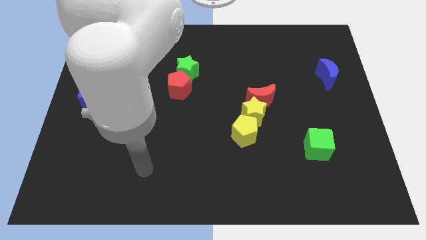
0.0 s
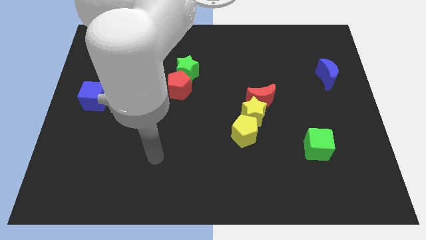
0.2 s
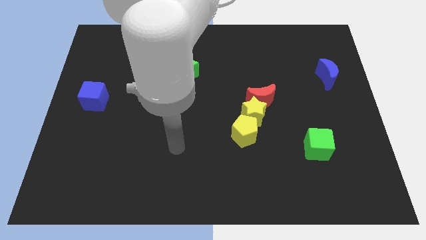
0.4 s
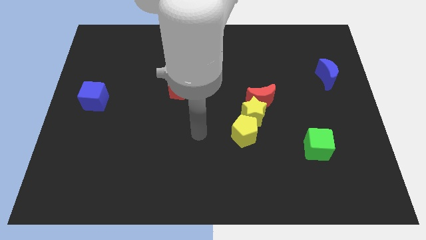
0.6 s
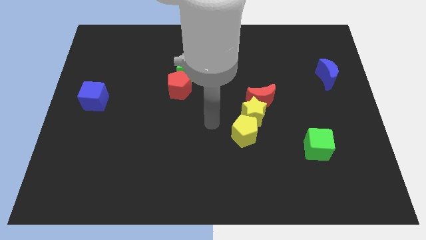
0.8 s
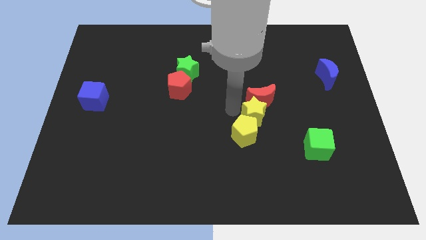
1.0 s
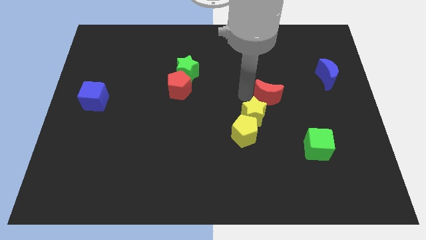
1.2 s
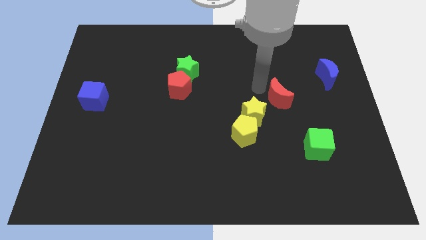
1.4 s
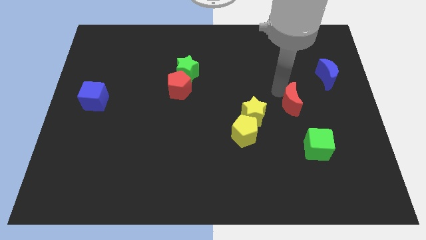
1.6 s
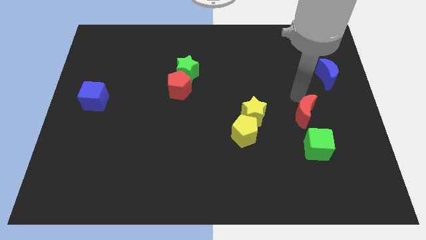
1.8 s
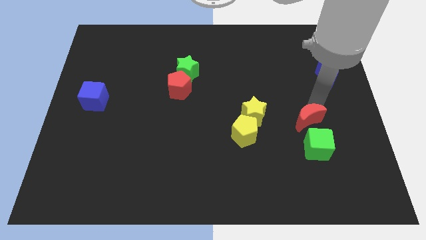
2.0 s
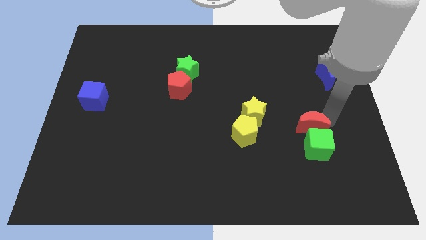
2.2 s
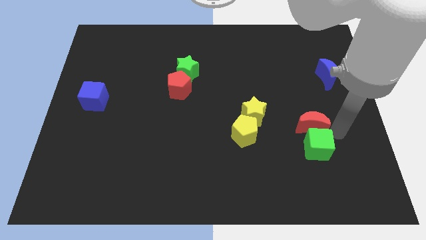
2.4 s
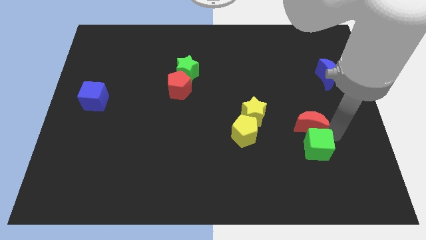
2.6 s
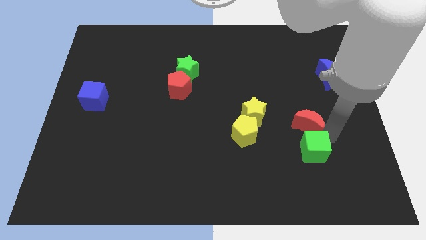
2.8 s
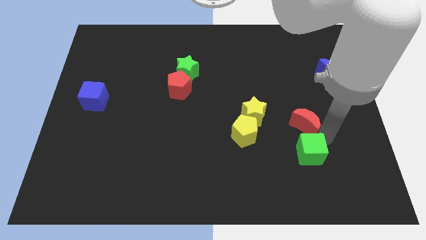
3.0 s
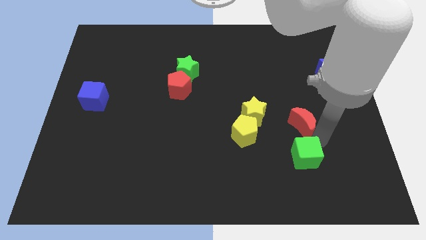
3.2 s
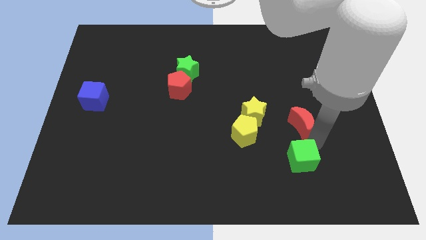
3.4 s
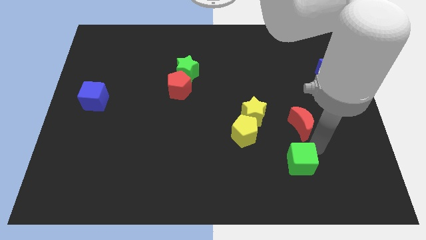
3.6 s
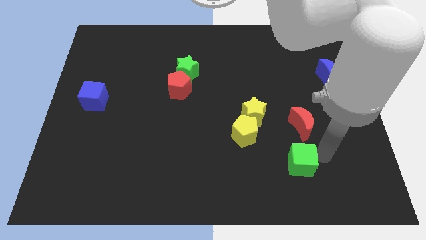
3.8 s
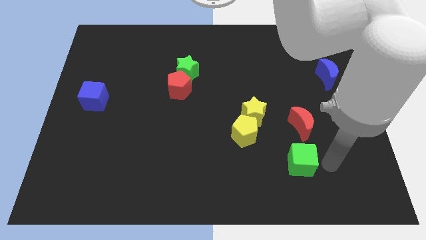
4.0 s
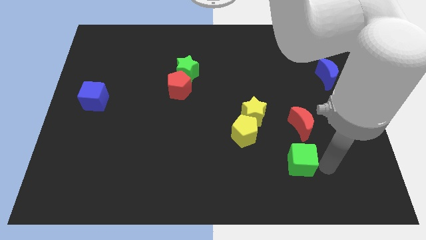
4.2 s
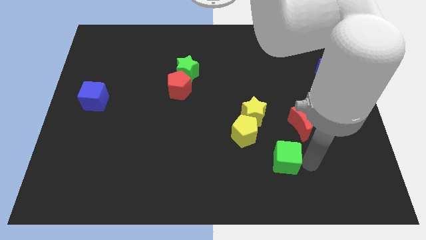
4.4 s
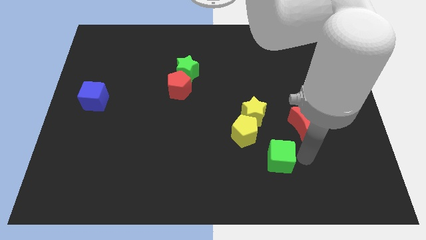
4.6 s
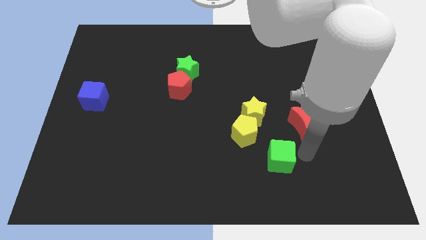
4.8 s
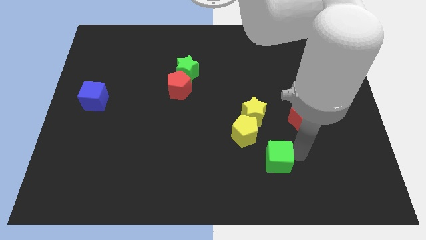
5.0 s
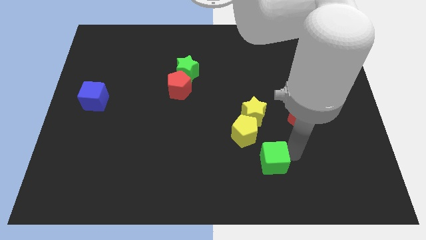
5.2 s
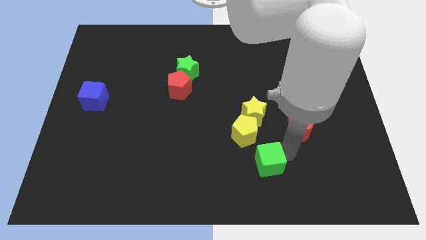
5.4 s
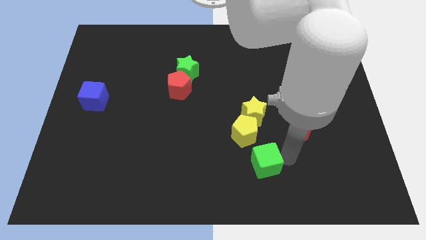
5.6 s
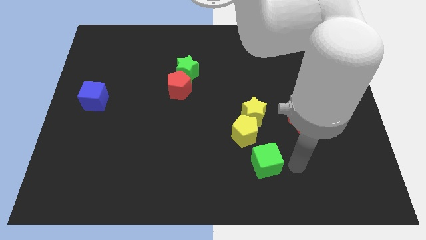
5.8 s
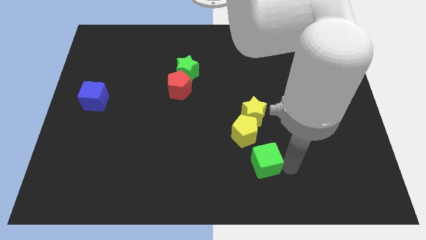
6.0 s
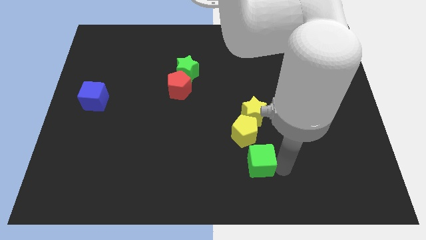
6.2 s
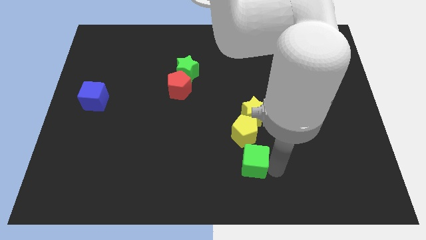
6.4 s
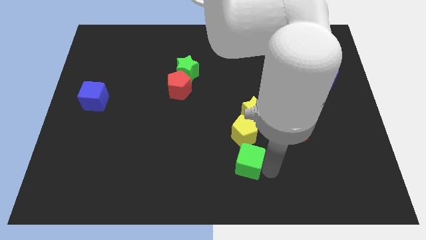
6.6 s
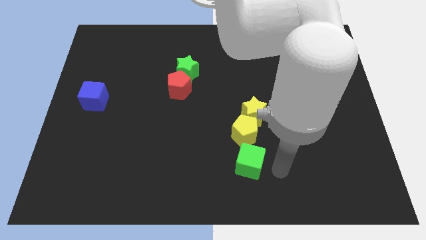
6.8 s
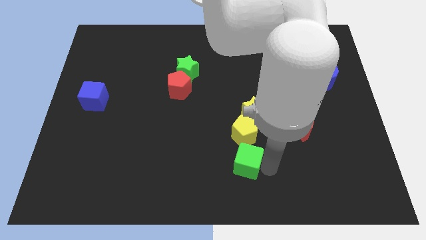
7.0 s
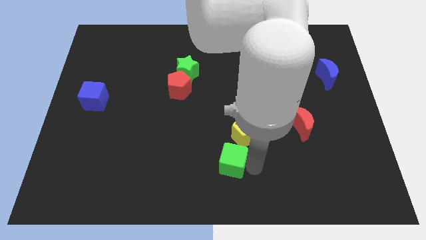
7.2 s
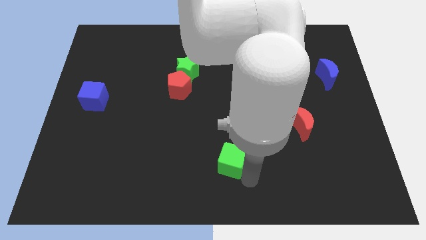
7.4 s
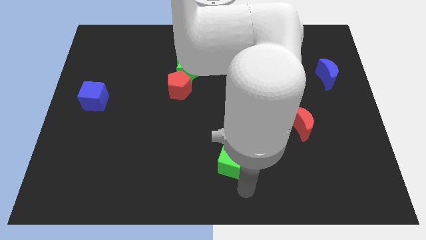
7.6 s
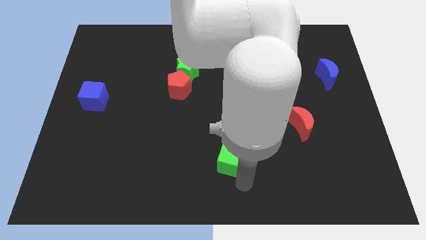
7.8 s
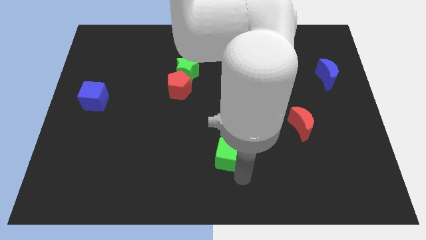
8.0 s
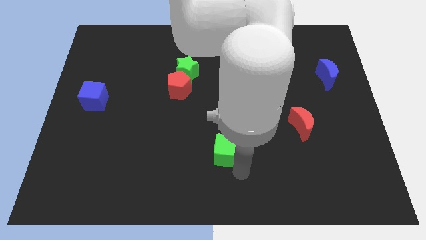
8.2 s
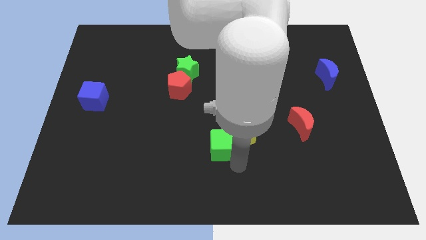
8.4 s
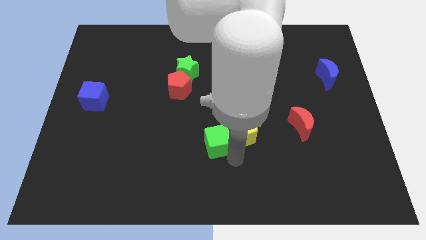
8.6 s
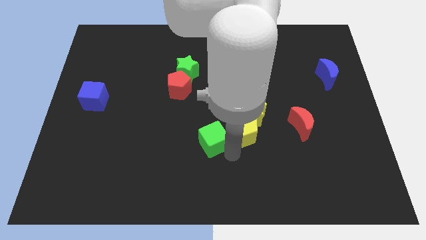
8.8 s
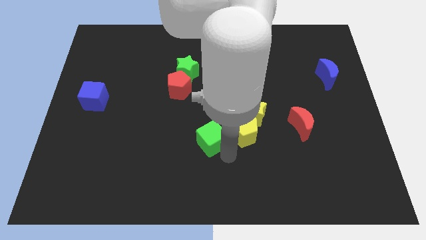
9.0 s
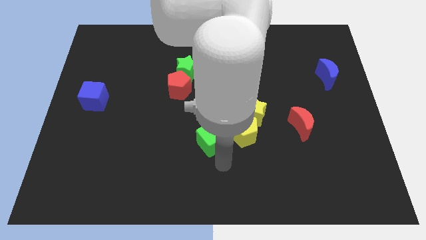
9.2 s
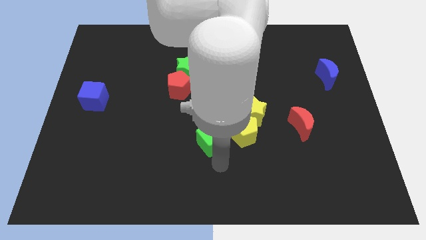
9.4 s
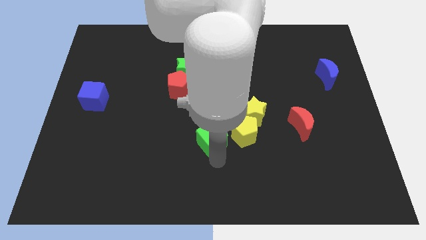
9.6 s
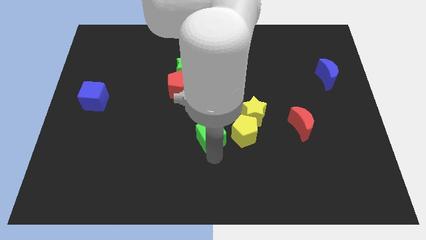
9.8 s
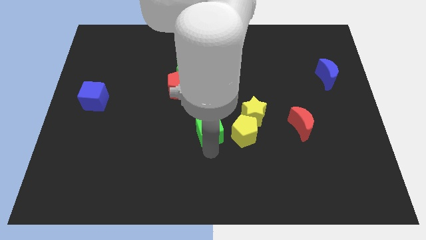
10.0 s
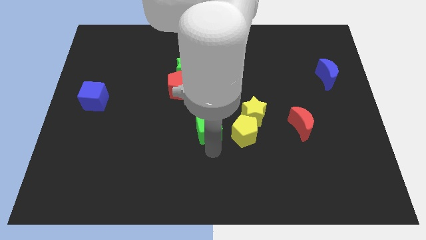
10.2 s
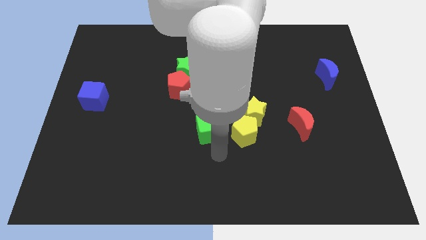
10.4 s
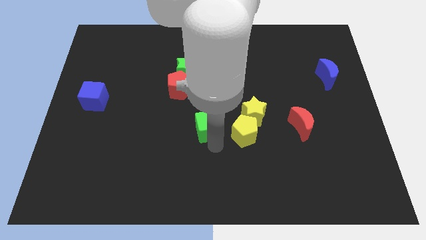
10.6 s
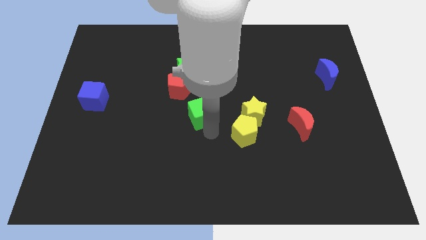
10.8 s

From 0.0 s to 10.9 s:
push the green cube to the bottom of the green star

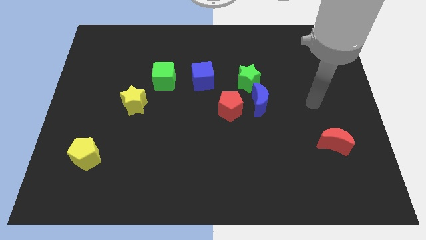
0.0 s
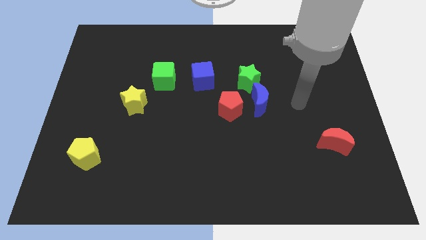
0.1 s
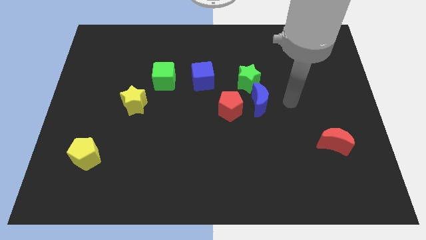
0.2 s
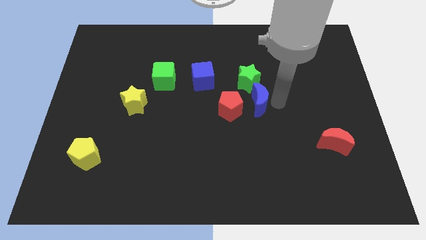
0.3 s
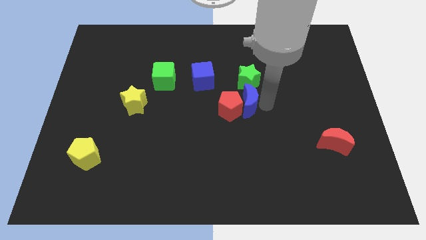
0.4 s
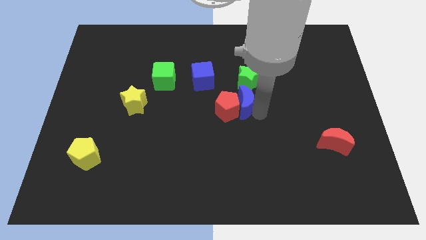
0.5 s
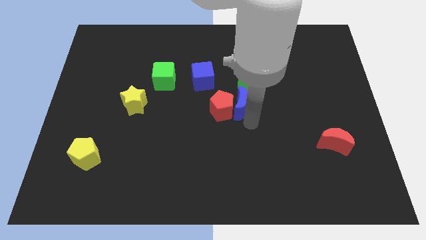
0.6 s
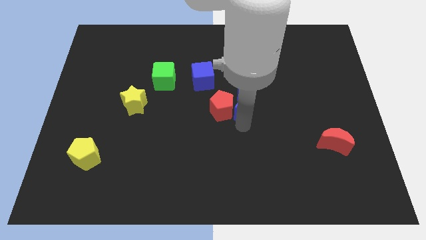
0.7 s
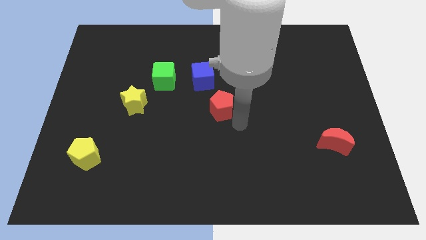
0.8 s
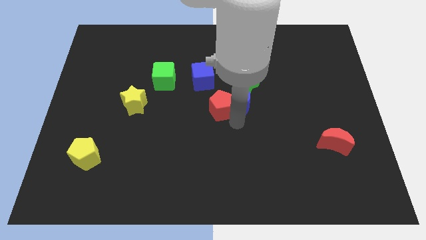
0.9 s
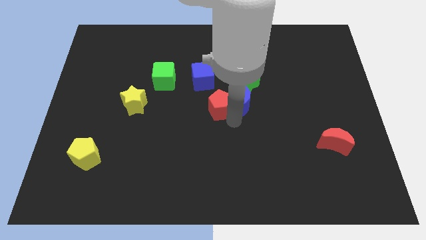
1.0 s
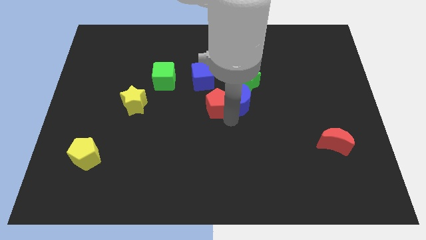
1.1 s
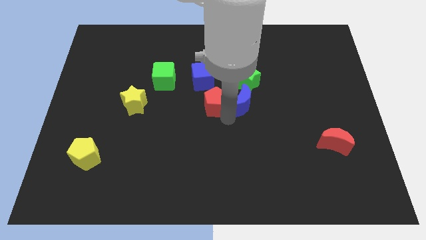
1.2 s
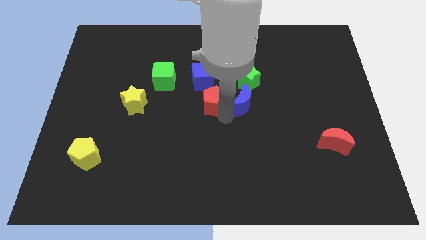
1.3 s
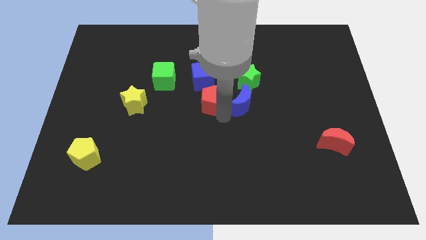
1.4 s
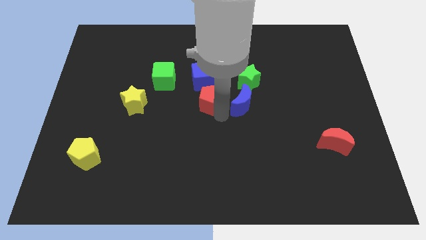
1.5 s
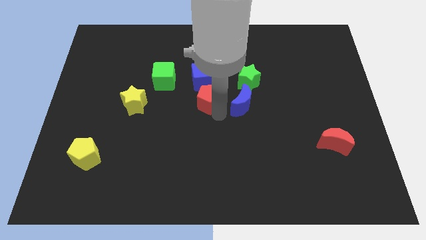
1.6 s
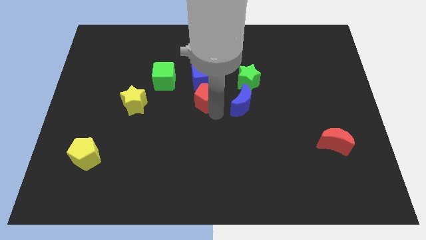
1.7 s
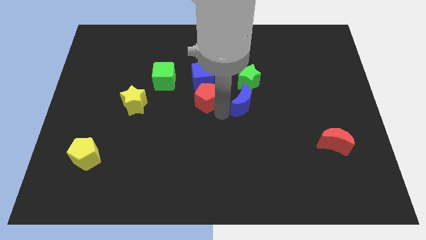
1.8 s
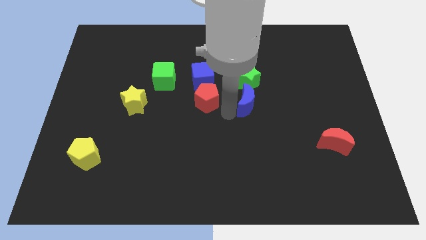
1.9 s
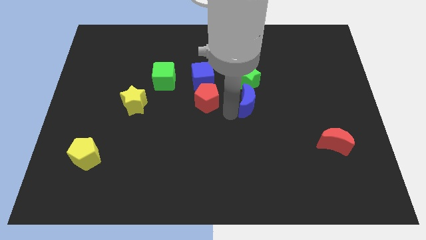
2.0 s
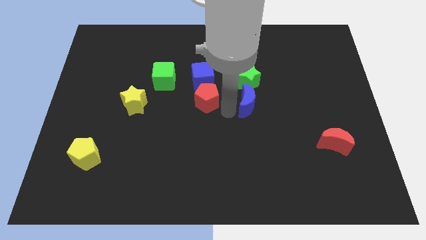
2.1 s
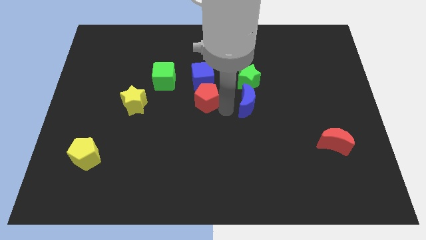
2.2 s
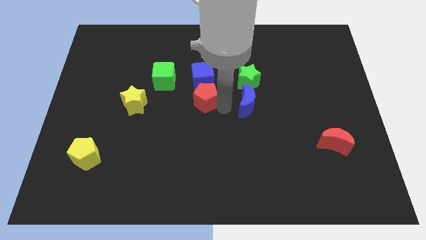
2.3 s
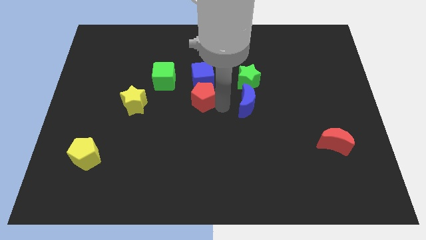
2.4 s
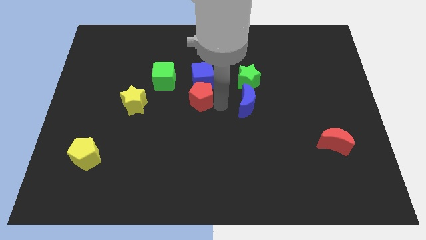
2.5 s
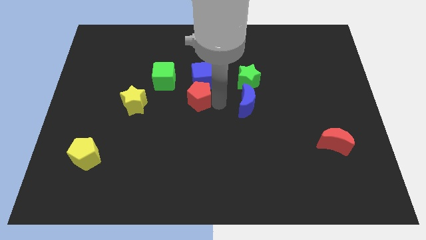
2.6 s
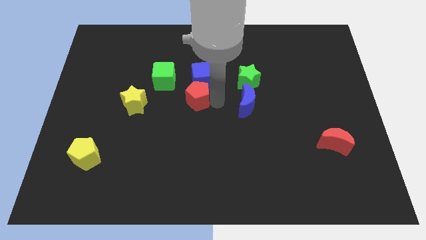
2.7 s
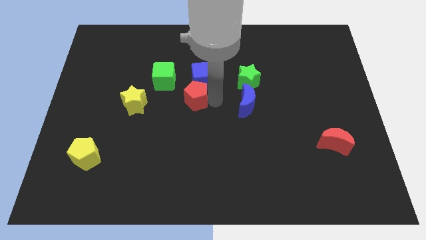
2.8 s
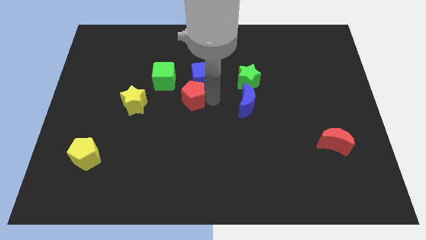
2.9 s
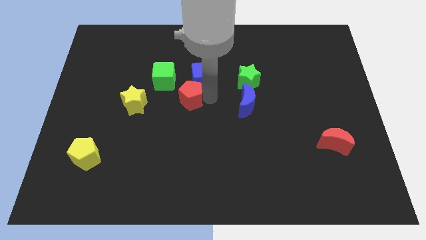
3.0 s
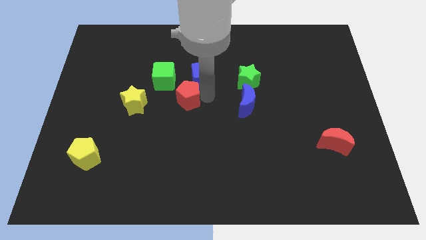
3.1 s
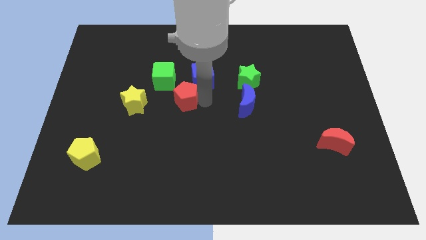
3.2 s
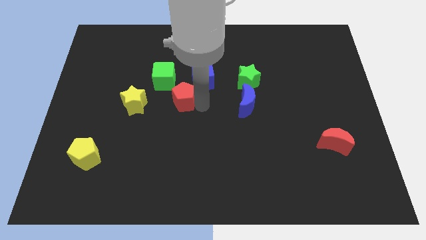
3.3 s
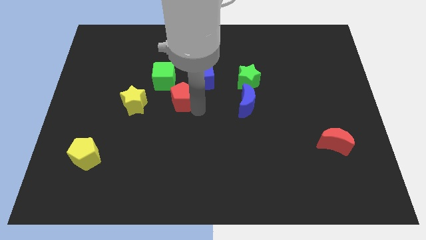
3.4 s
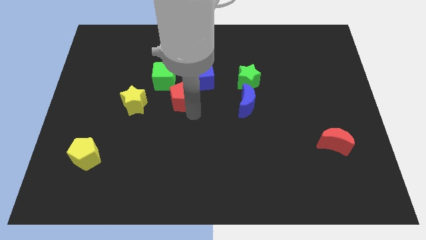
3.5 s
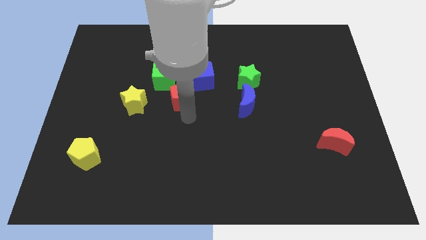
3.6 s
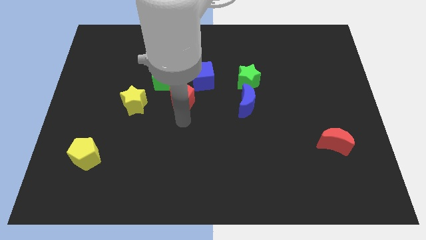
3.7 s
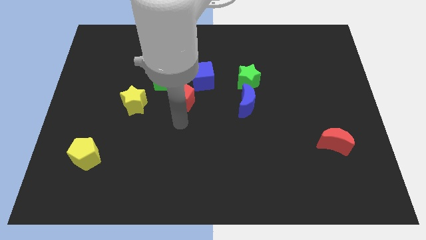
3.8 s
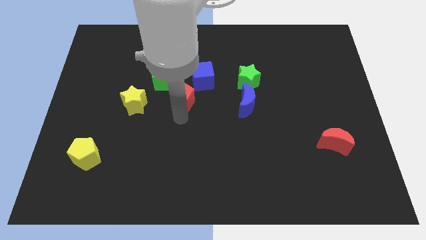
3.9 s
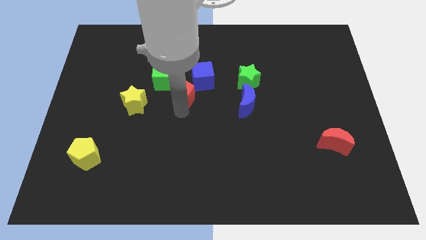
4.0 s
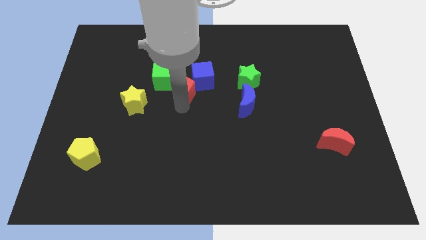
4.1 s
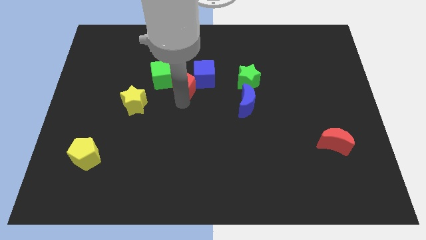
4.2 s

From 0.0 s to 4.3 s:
put the red pentagon just left of the green star
